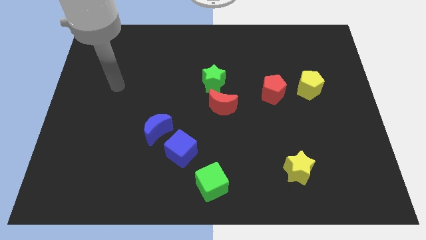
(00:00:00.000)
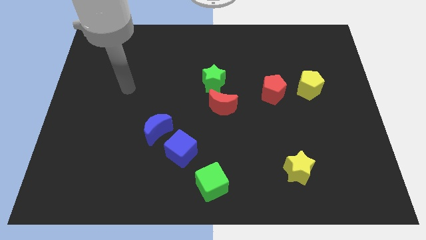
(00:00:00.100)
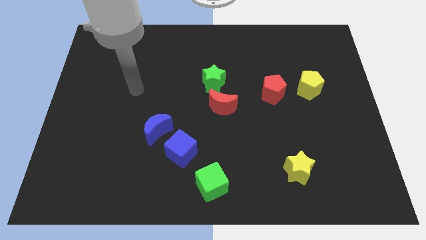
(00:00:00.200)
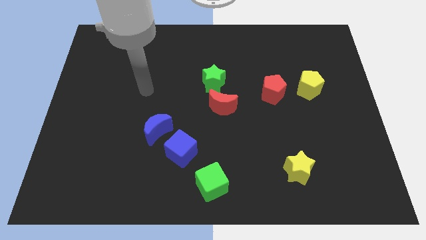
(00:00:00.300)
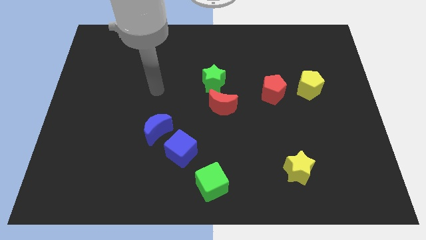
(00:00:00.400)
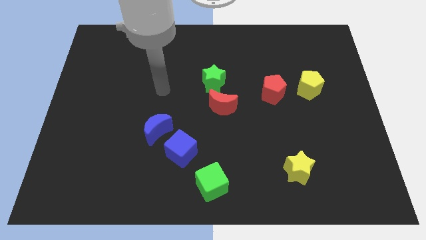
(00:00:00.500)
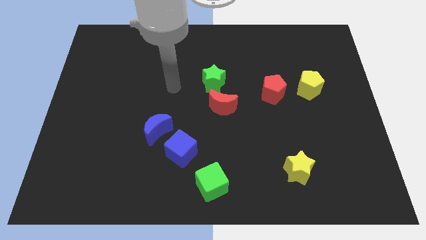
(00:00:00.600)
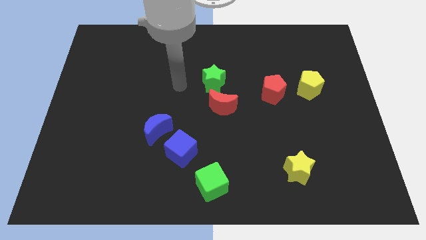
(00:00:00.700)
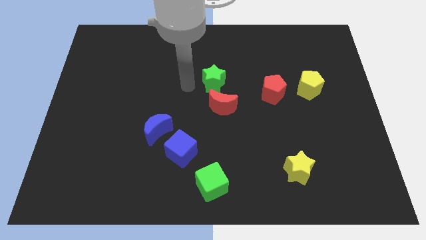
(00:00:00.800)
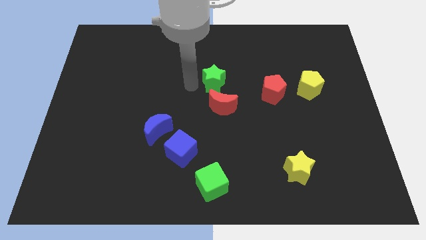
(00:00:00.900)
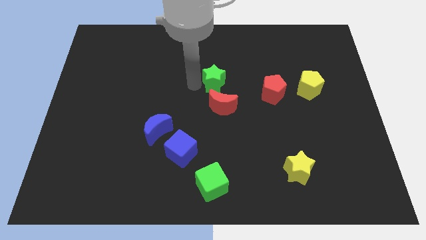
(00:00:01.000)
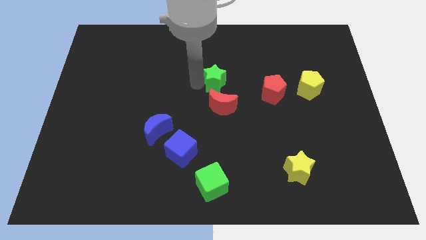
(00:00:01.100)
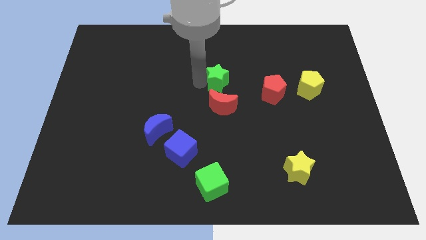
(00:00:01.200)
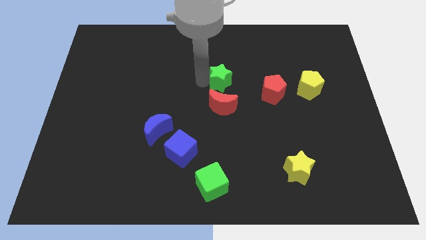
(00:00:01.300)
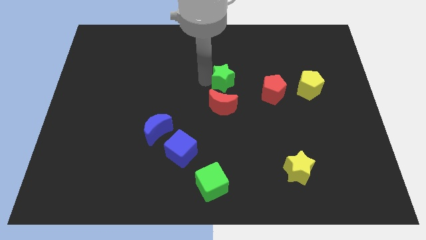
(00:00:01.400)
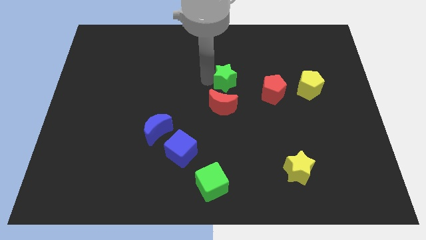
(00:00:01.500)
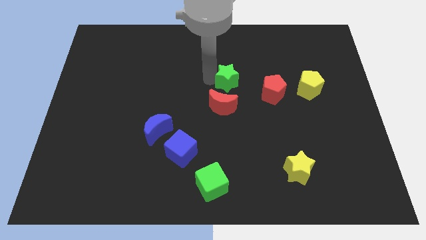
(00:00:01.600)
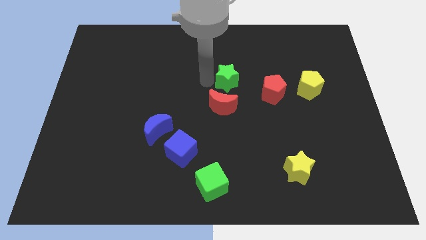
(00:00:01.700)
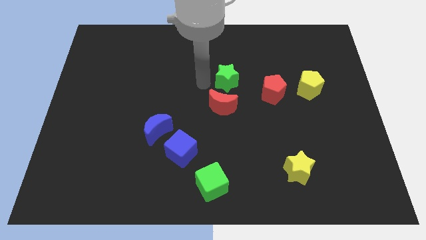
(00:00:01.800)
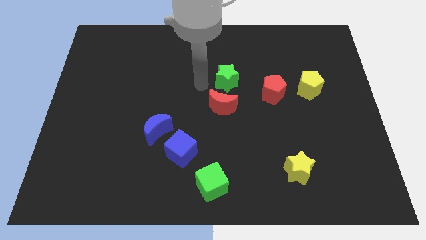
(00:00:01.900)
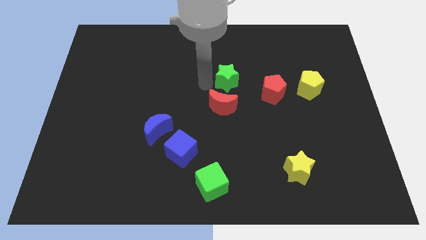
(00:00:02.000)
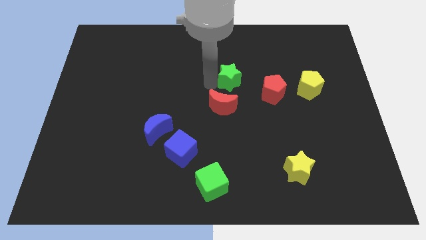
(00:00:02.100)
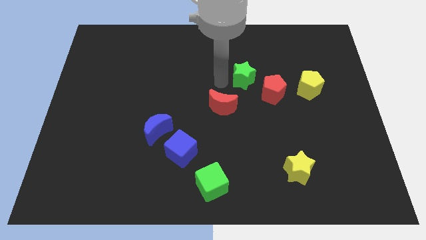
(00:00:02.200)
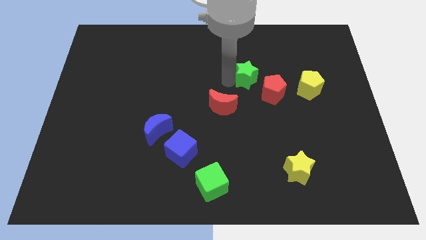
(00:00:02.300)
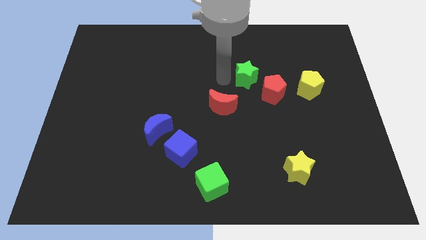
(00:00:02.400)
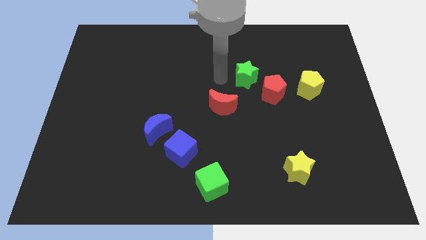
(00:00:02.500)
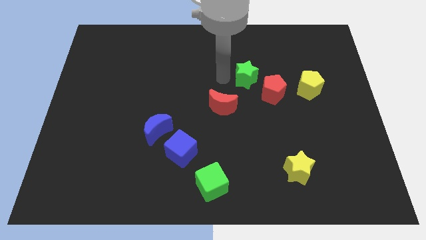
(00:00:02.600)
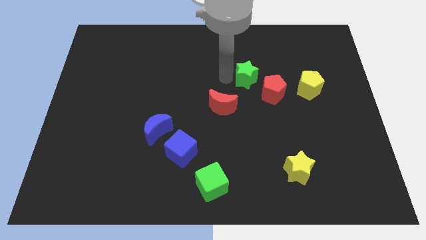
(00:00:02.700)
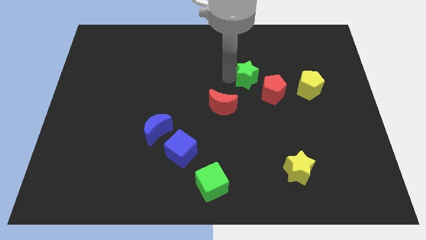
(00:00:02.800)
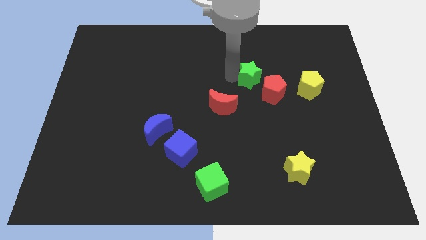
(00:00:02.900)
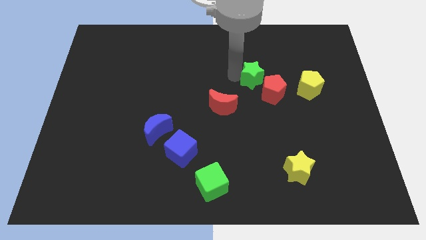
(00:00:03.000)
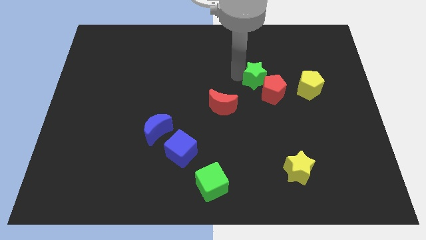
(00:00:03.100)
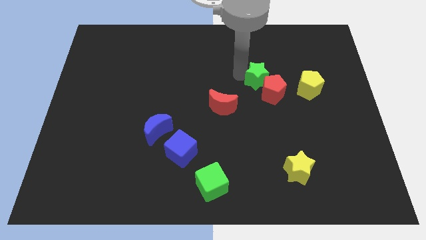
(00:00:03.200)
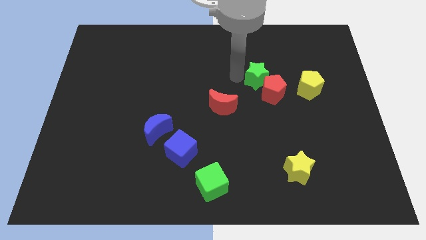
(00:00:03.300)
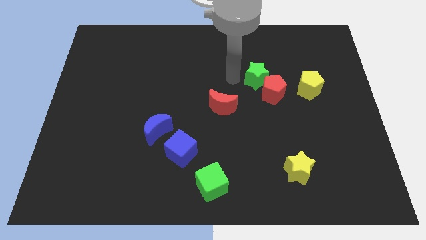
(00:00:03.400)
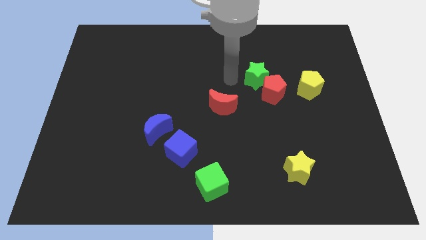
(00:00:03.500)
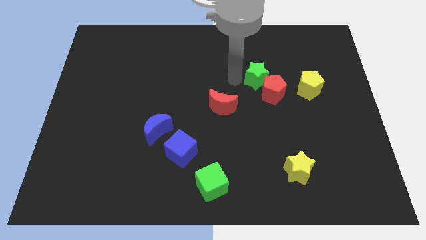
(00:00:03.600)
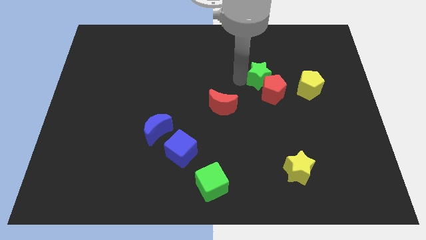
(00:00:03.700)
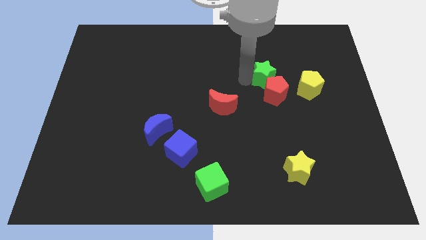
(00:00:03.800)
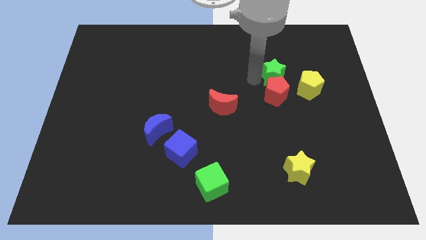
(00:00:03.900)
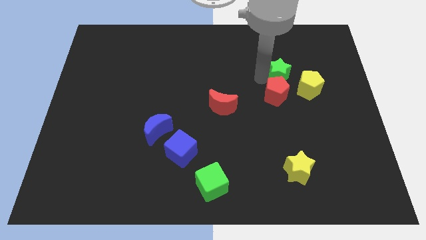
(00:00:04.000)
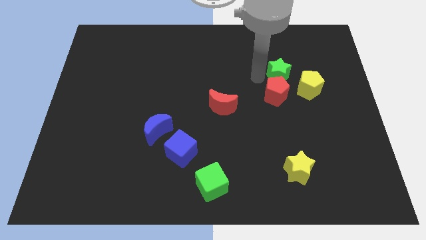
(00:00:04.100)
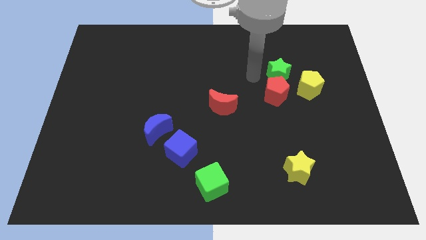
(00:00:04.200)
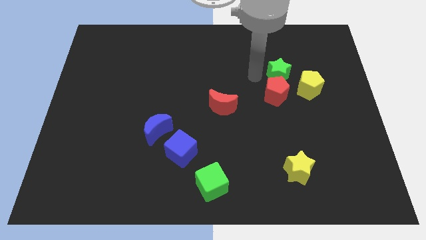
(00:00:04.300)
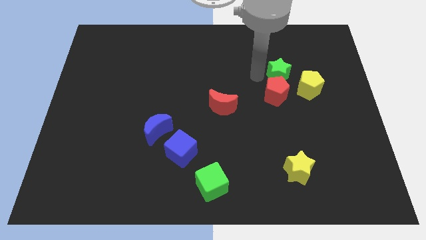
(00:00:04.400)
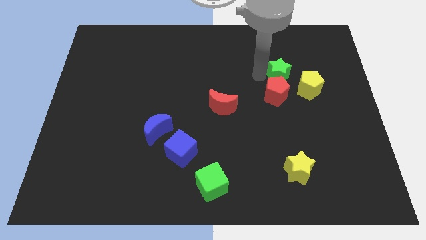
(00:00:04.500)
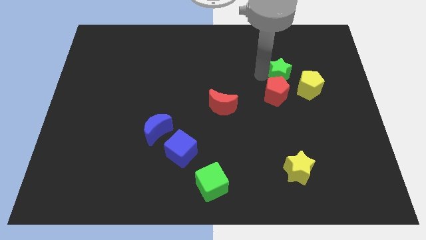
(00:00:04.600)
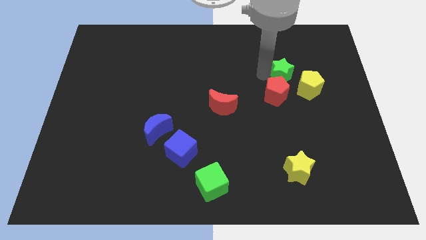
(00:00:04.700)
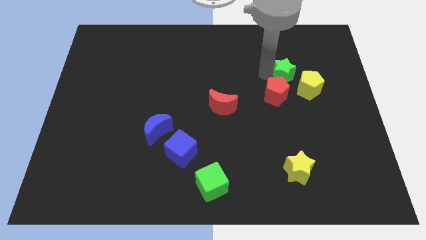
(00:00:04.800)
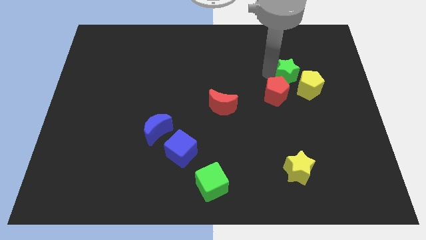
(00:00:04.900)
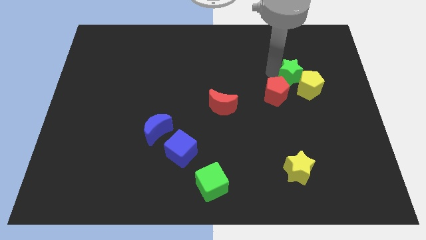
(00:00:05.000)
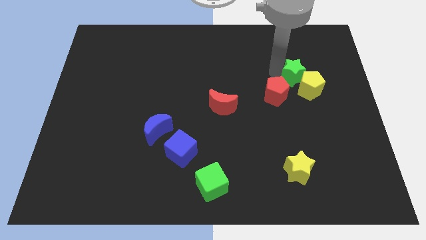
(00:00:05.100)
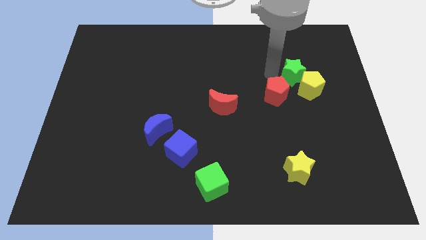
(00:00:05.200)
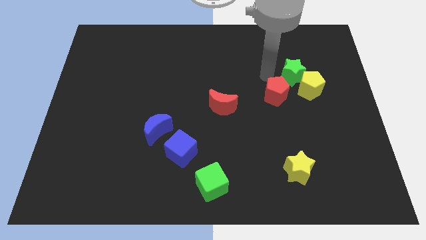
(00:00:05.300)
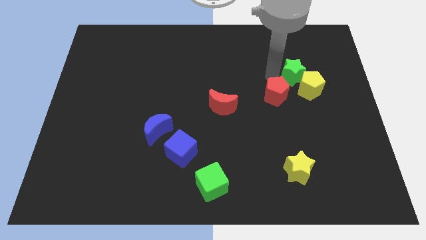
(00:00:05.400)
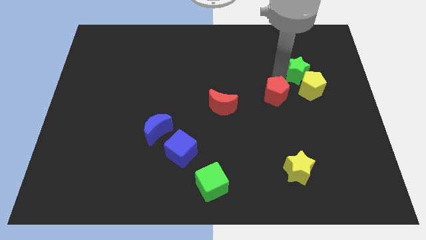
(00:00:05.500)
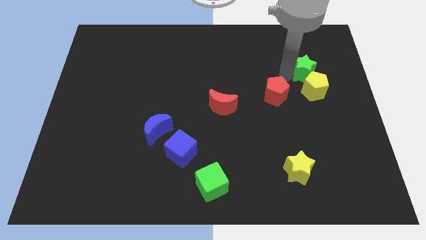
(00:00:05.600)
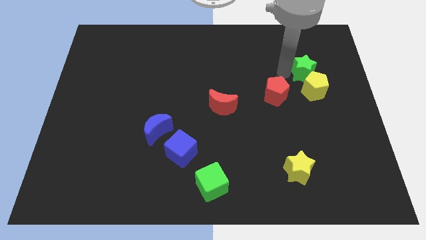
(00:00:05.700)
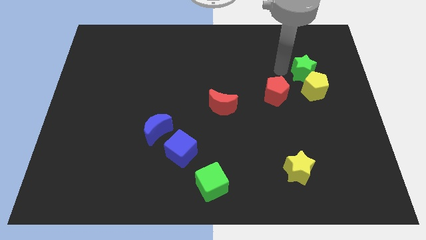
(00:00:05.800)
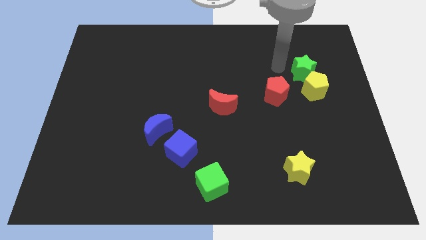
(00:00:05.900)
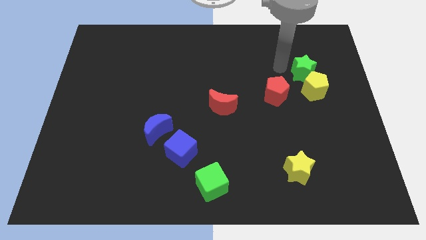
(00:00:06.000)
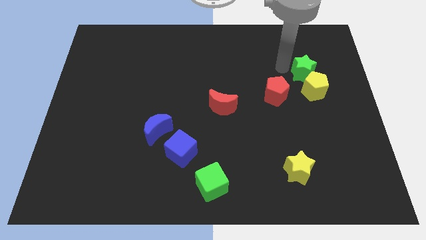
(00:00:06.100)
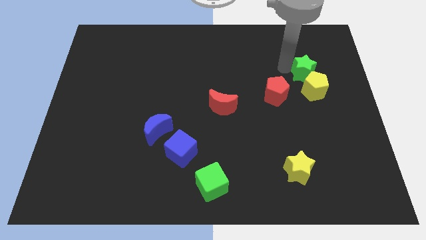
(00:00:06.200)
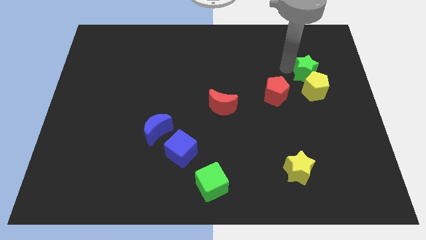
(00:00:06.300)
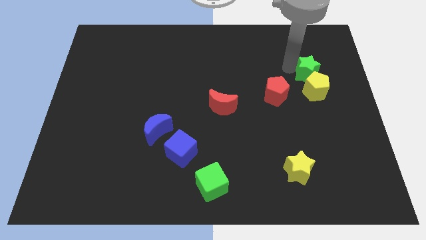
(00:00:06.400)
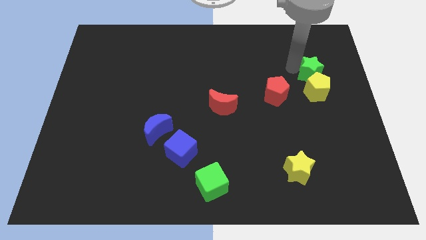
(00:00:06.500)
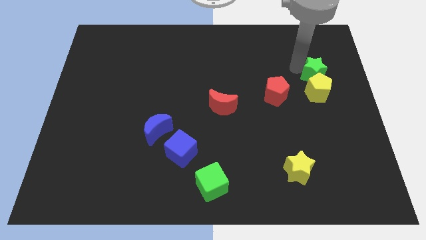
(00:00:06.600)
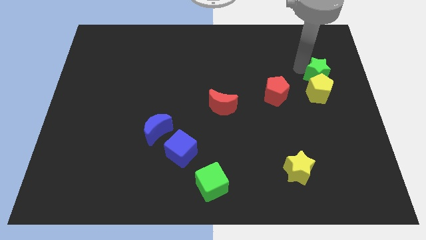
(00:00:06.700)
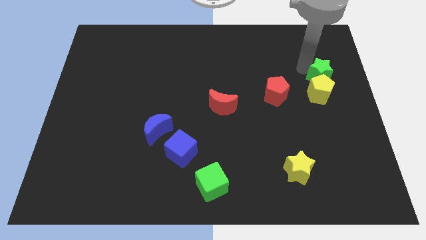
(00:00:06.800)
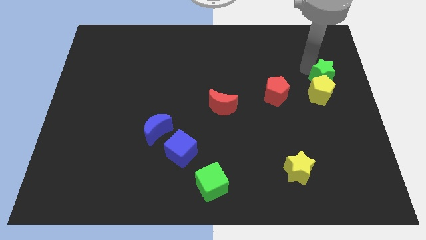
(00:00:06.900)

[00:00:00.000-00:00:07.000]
slide the green star to the center right
